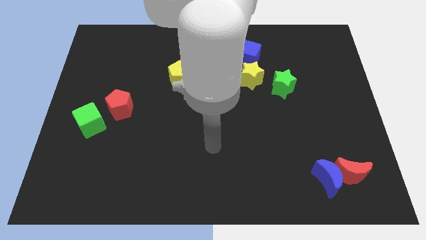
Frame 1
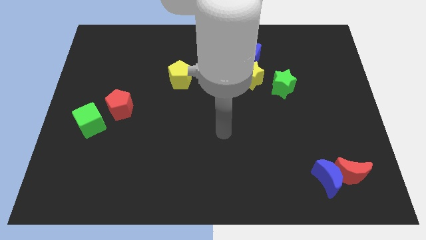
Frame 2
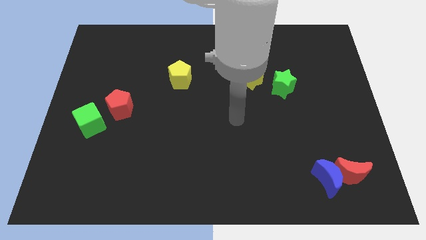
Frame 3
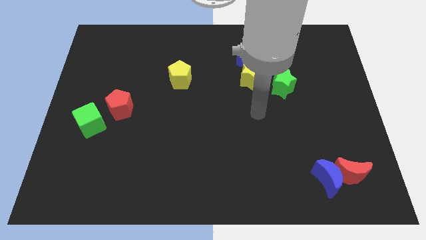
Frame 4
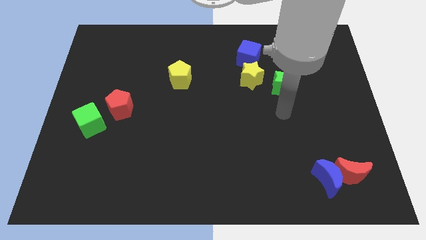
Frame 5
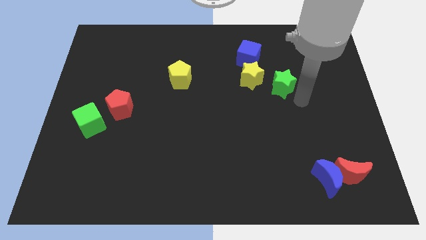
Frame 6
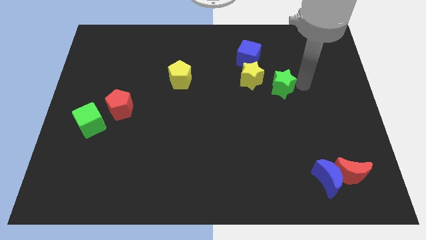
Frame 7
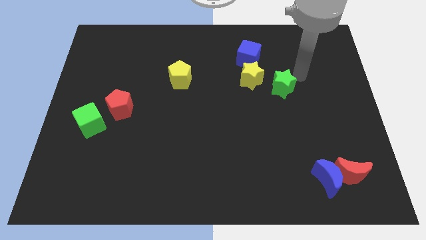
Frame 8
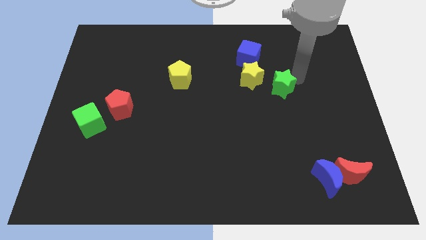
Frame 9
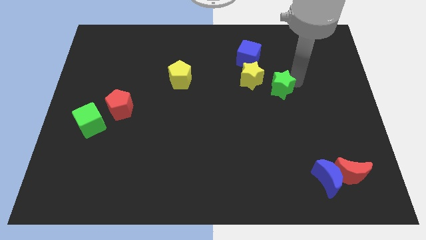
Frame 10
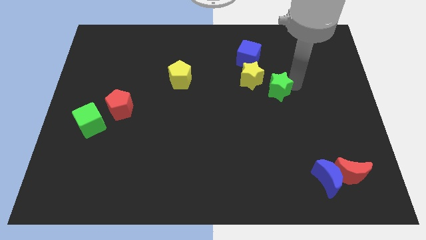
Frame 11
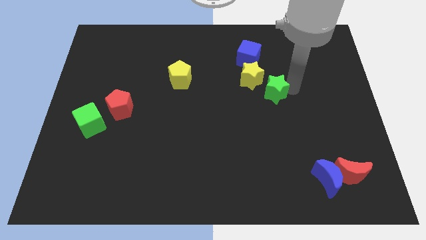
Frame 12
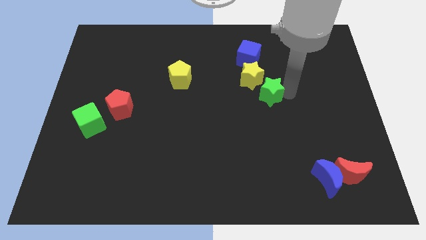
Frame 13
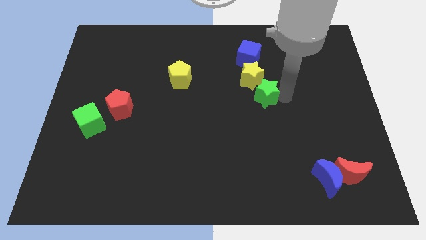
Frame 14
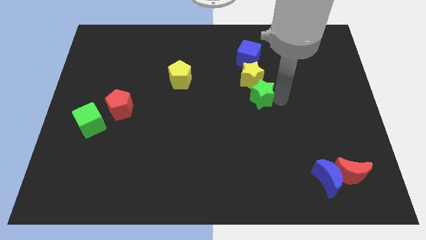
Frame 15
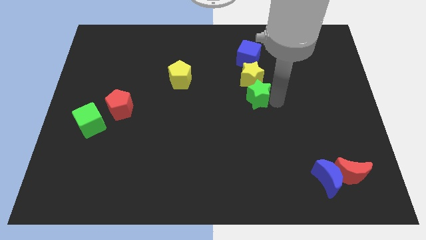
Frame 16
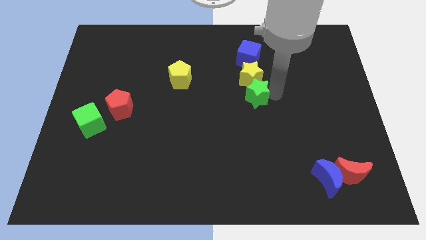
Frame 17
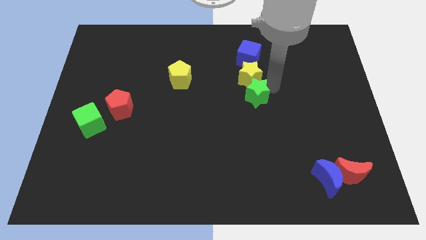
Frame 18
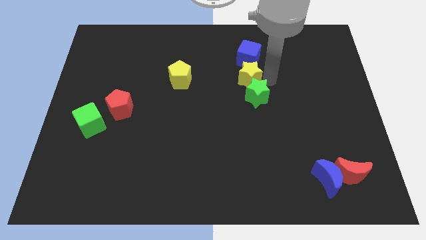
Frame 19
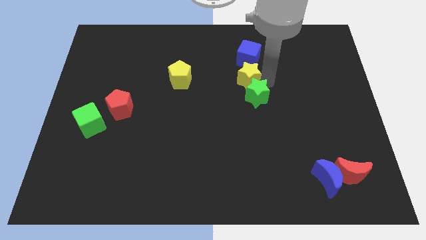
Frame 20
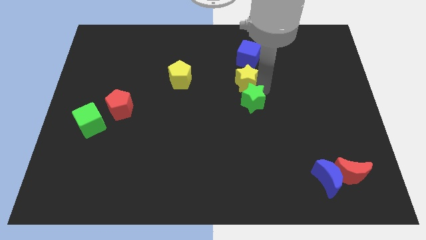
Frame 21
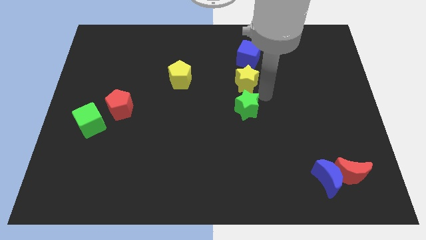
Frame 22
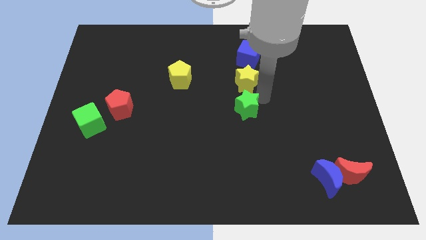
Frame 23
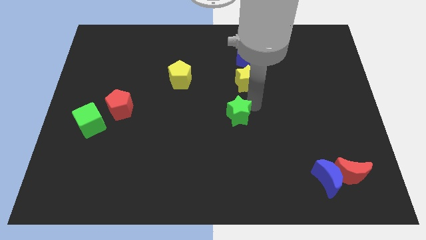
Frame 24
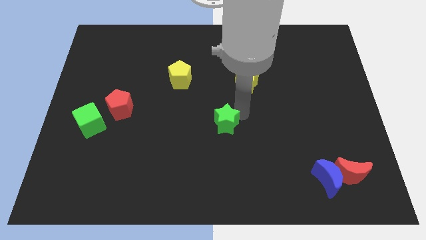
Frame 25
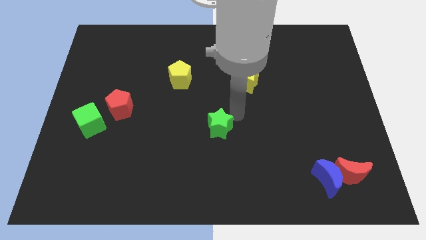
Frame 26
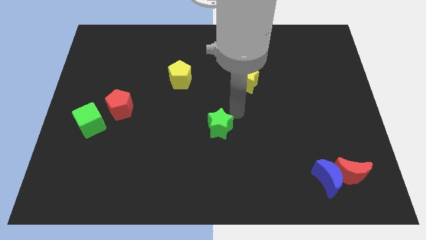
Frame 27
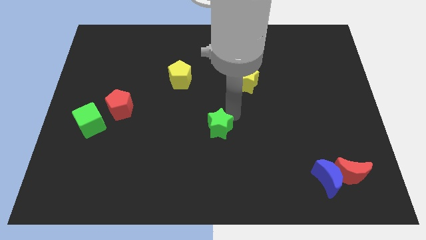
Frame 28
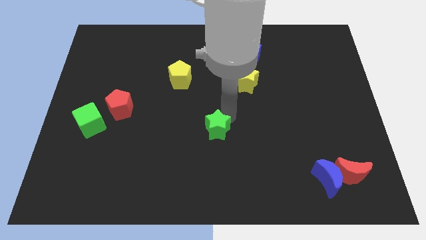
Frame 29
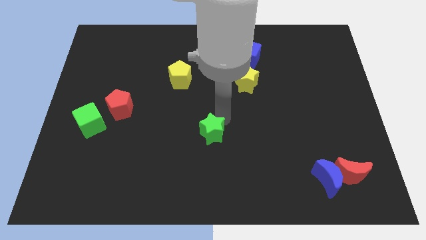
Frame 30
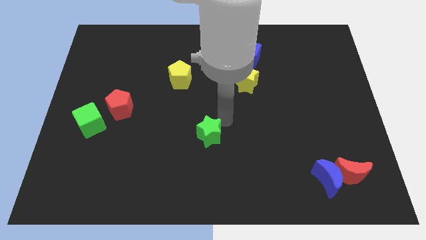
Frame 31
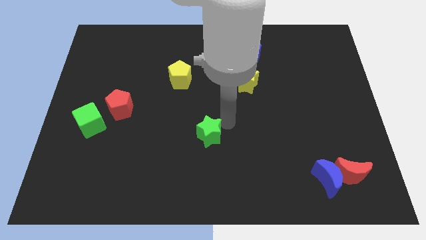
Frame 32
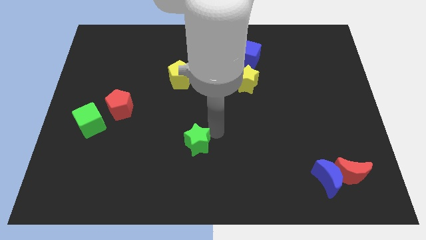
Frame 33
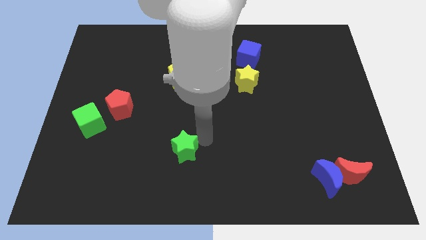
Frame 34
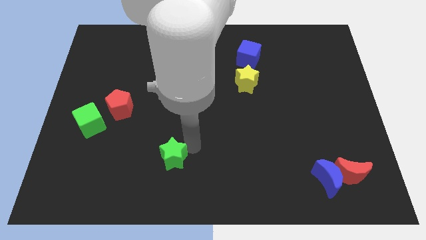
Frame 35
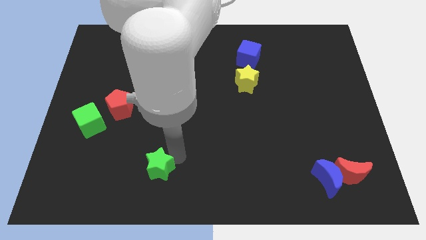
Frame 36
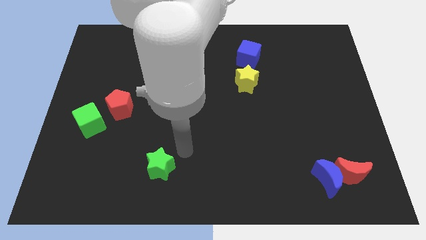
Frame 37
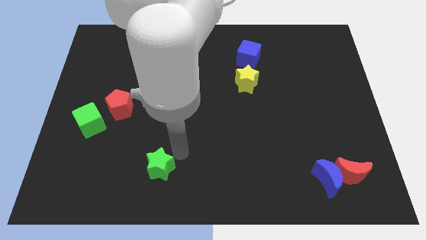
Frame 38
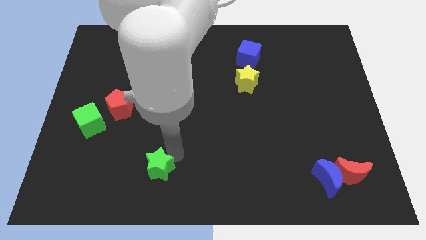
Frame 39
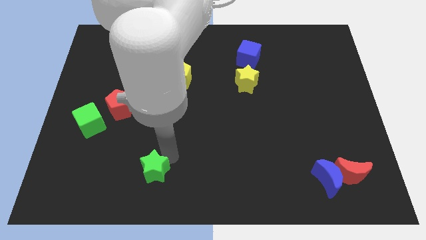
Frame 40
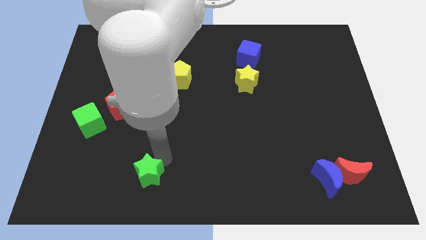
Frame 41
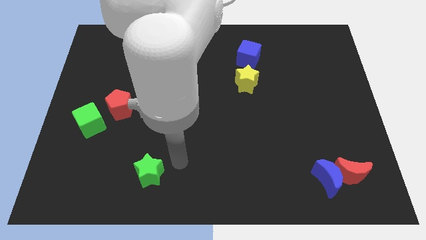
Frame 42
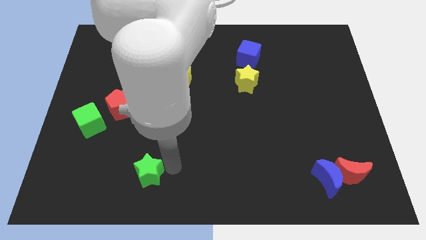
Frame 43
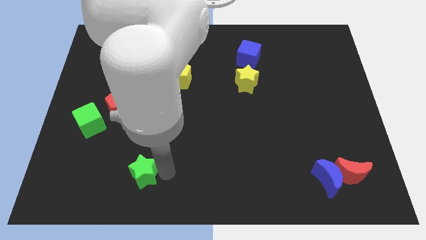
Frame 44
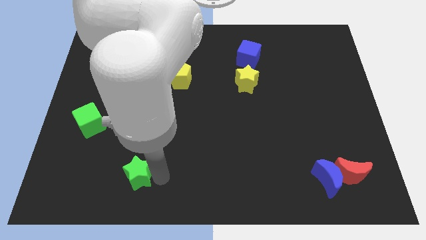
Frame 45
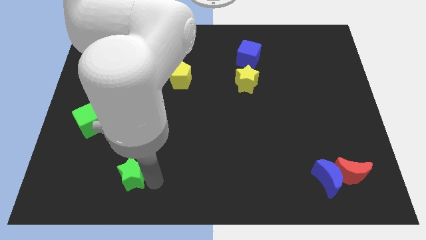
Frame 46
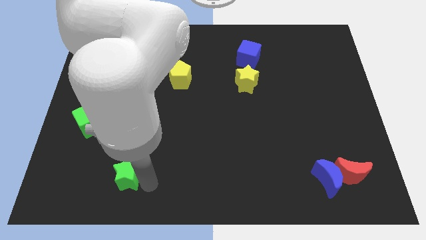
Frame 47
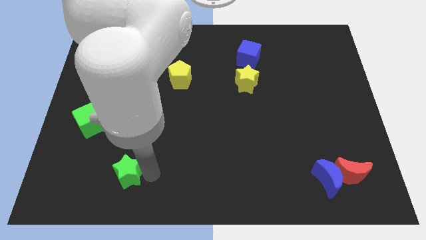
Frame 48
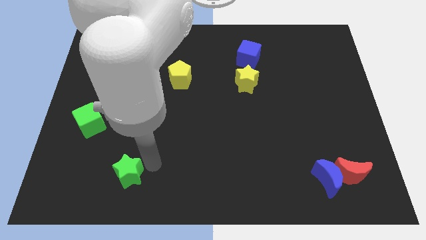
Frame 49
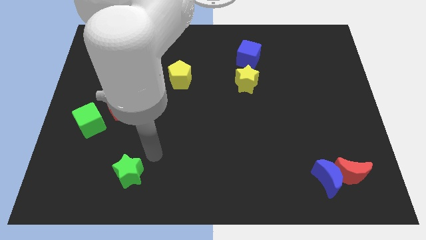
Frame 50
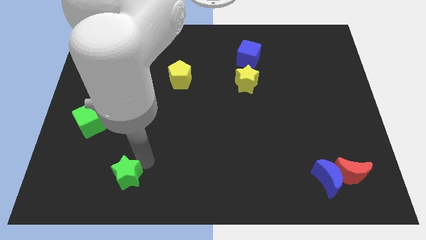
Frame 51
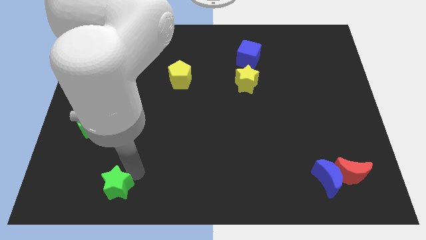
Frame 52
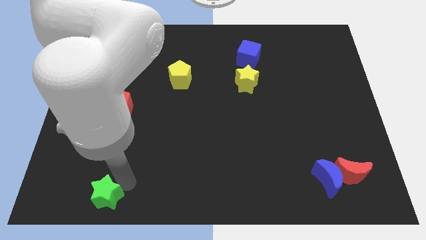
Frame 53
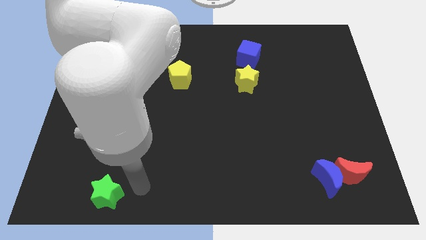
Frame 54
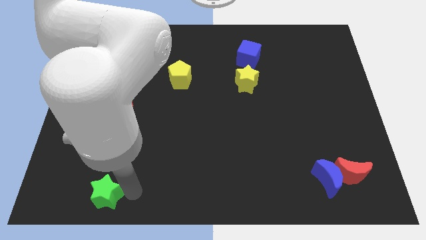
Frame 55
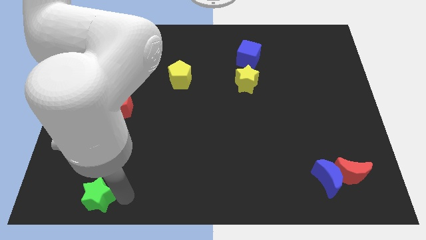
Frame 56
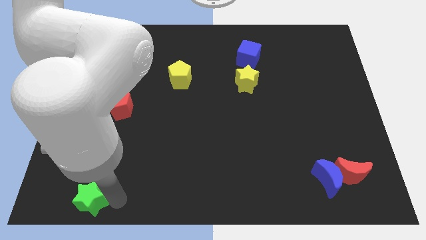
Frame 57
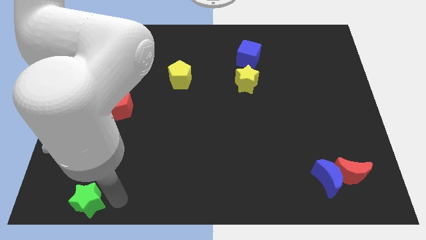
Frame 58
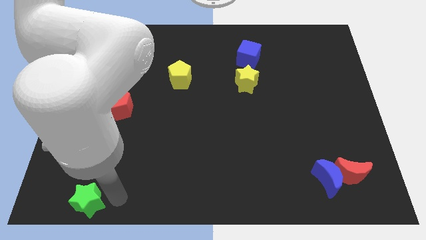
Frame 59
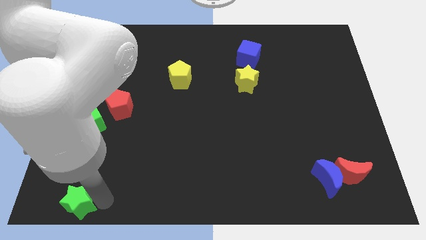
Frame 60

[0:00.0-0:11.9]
put the green star to the bottom left

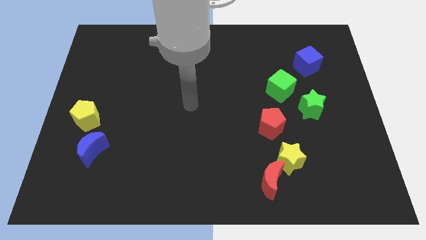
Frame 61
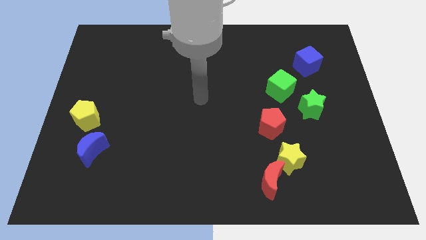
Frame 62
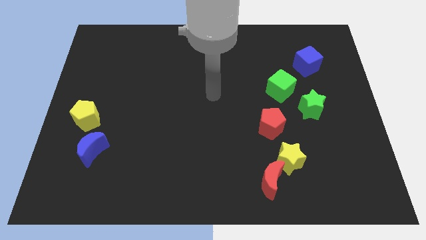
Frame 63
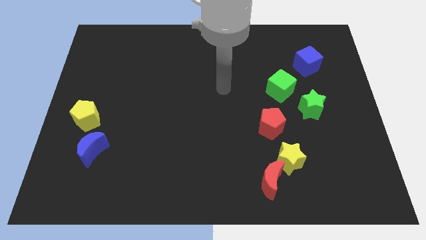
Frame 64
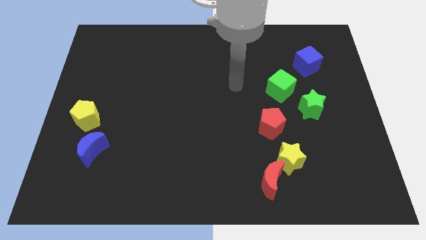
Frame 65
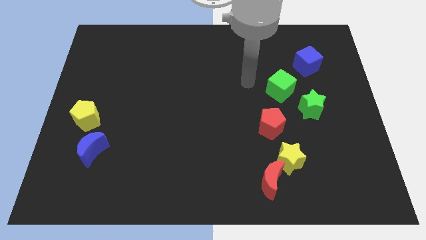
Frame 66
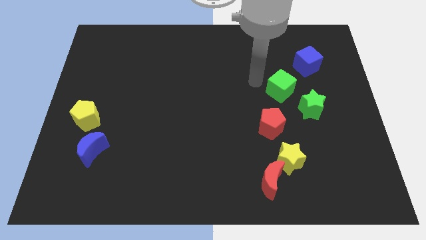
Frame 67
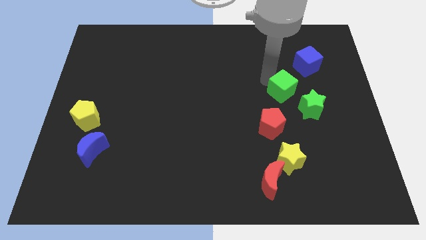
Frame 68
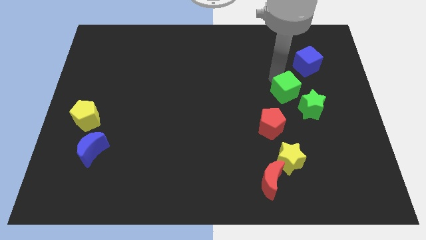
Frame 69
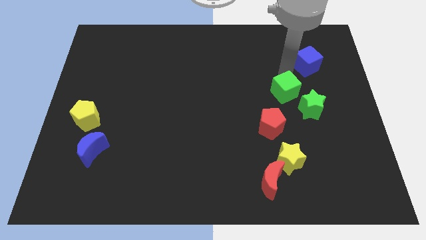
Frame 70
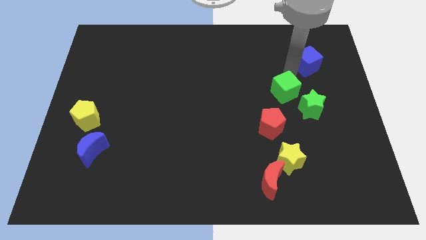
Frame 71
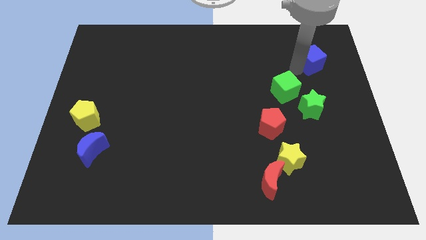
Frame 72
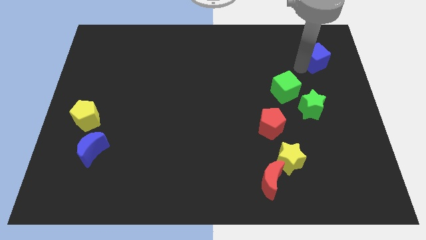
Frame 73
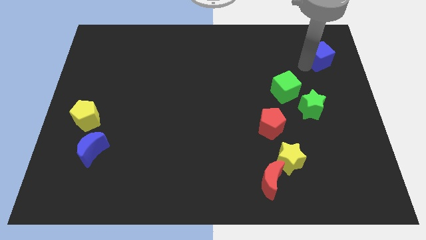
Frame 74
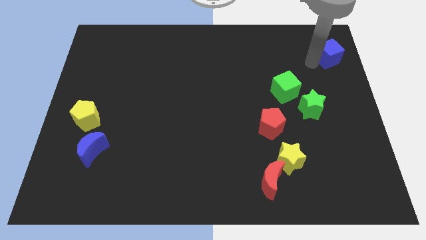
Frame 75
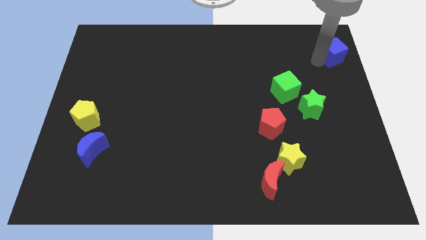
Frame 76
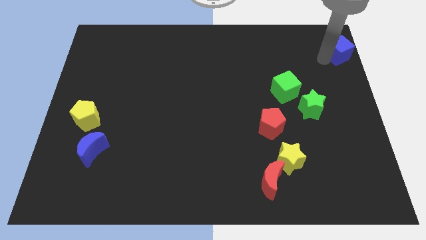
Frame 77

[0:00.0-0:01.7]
push the blue cube to the upper right corner
